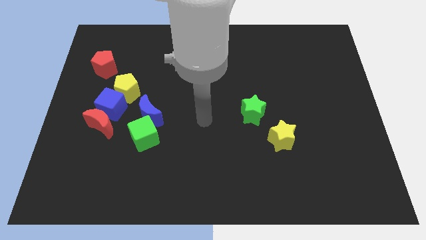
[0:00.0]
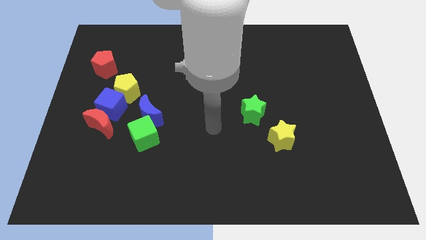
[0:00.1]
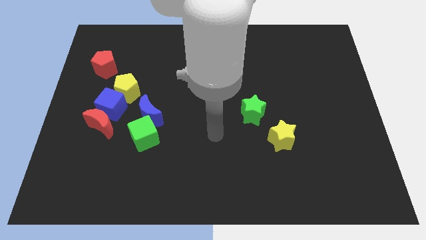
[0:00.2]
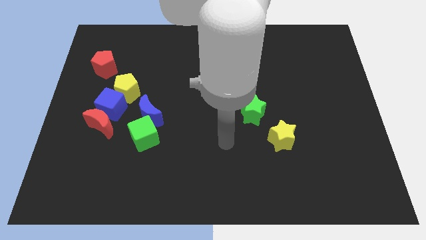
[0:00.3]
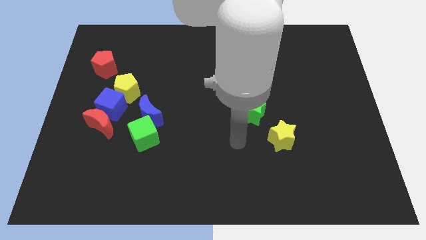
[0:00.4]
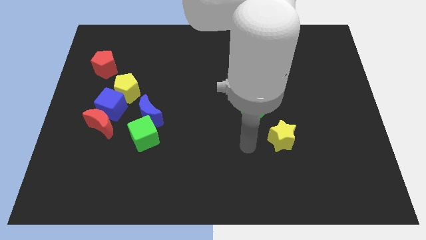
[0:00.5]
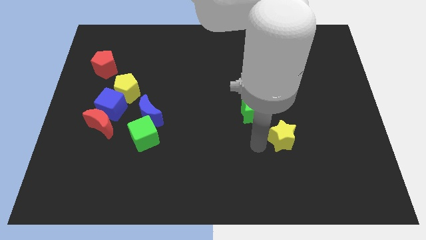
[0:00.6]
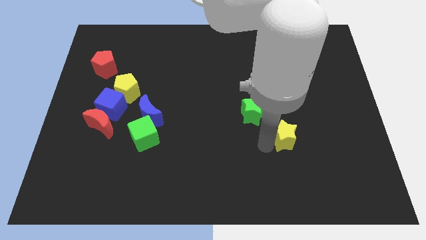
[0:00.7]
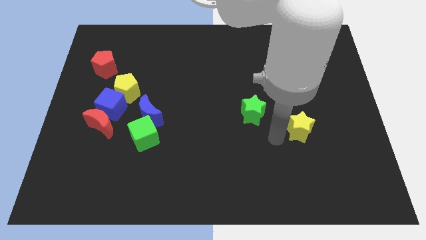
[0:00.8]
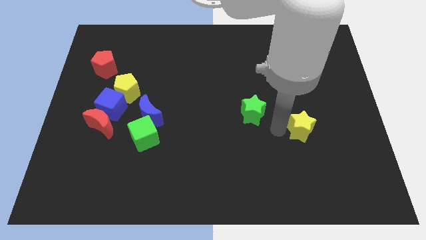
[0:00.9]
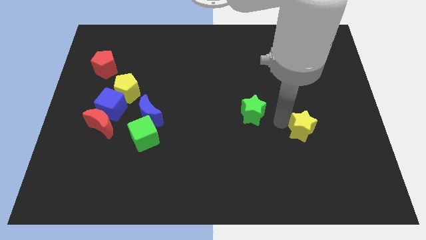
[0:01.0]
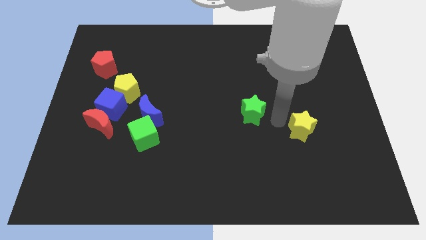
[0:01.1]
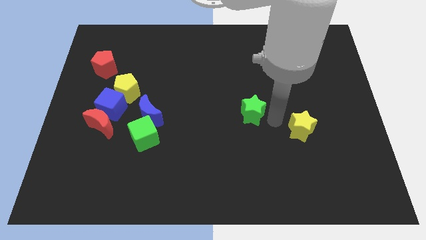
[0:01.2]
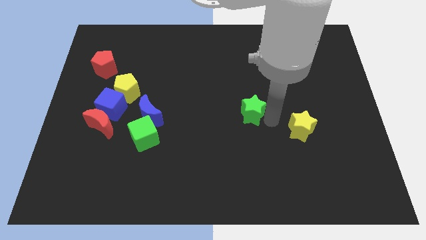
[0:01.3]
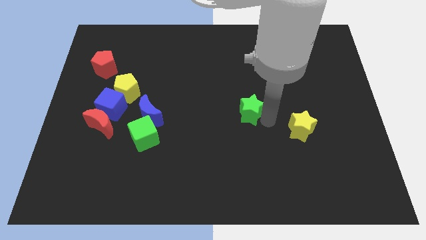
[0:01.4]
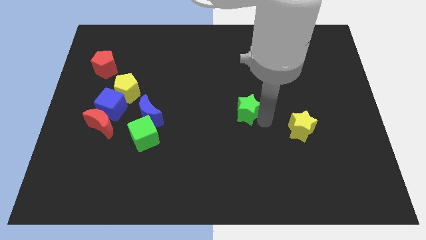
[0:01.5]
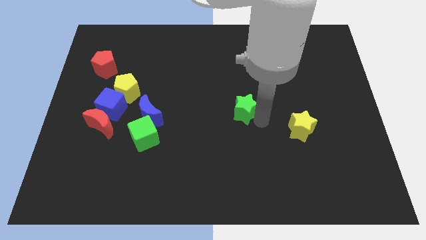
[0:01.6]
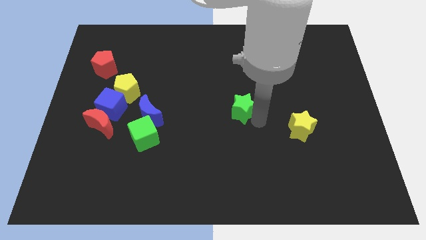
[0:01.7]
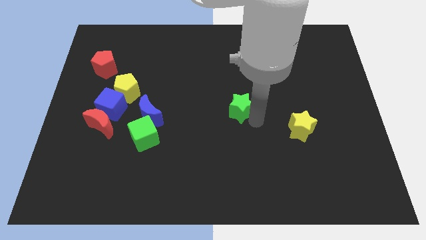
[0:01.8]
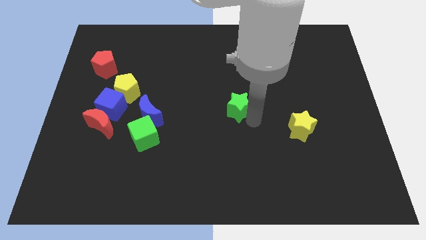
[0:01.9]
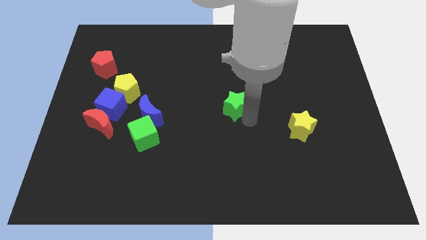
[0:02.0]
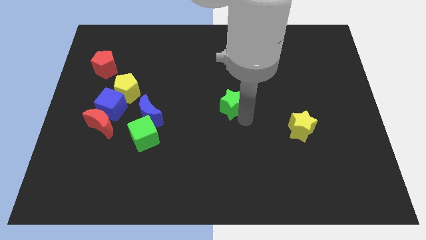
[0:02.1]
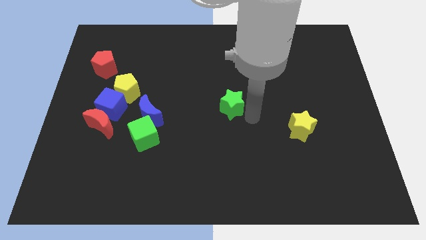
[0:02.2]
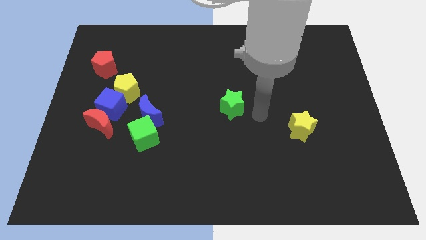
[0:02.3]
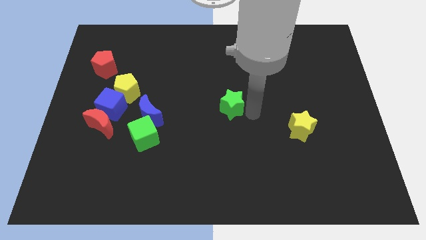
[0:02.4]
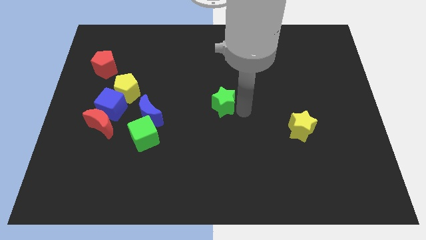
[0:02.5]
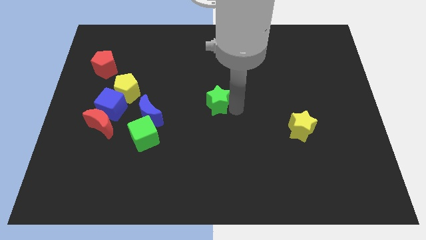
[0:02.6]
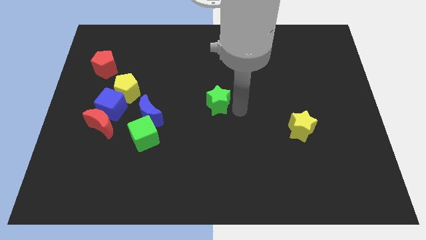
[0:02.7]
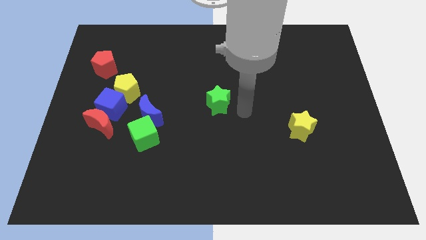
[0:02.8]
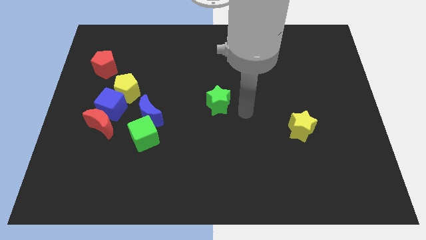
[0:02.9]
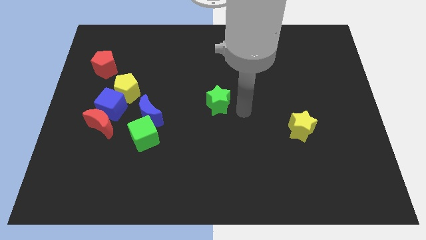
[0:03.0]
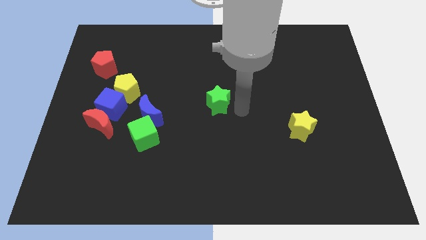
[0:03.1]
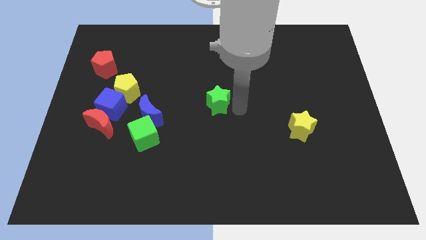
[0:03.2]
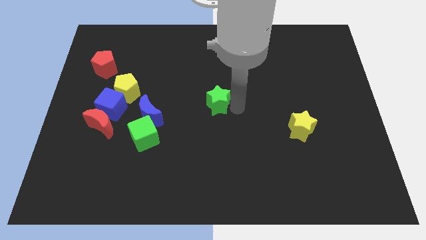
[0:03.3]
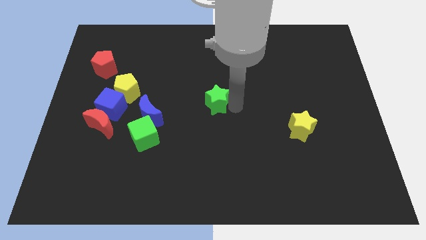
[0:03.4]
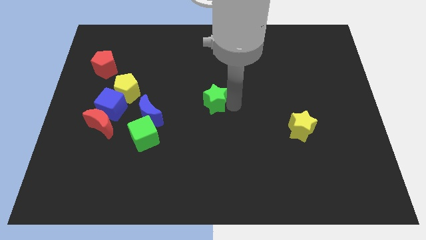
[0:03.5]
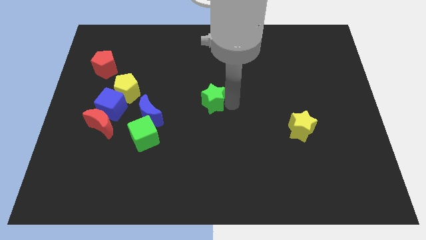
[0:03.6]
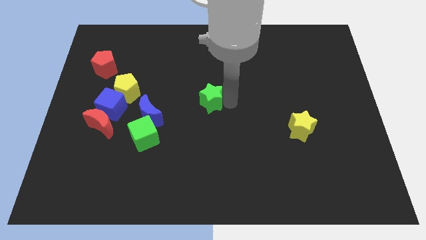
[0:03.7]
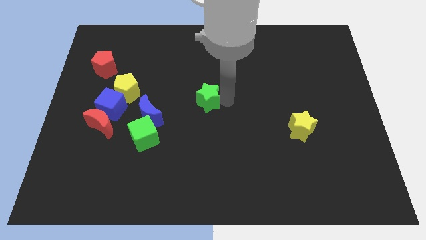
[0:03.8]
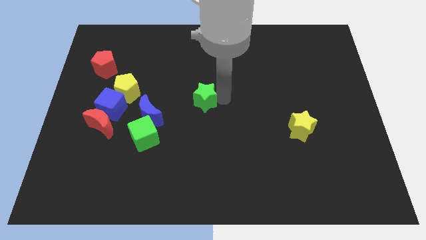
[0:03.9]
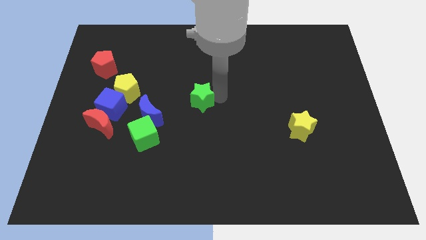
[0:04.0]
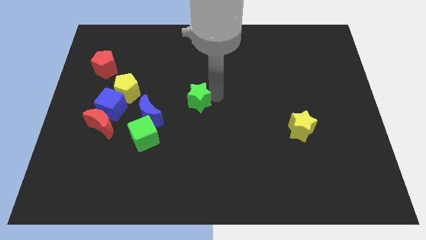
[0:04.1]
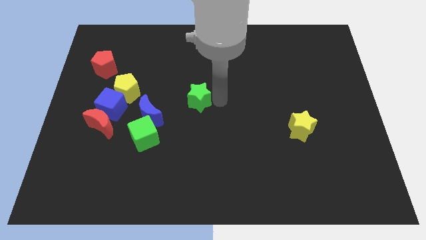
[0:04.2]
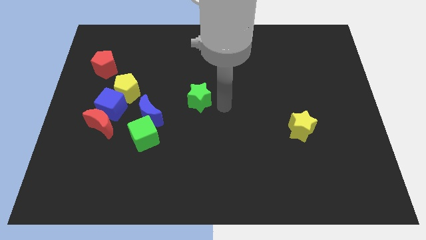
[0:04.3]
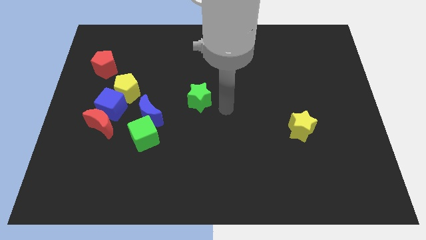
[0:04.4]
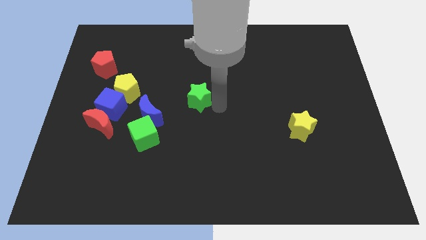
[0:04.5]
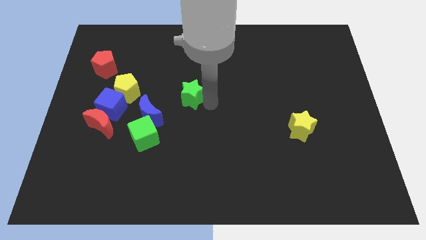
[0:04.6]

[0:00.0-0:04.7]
put the green star to the right side of the yellow pentagon

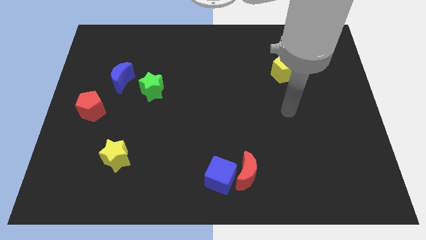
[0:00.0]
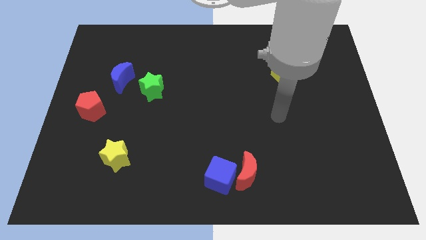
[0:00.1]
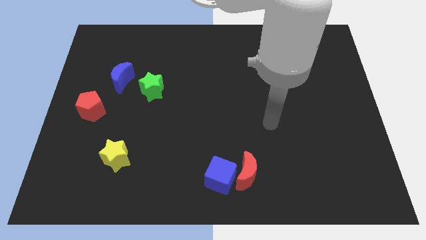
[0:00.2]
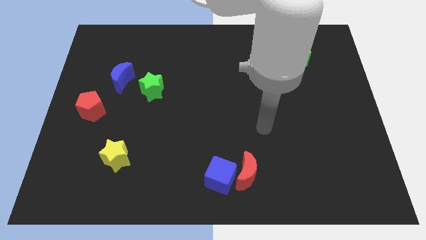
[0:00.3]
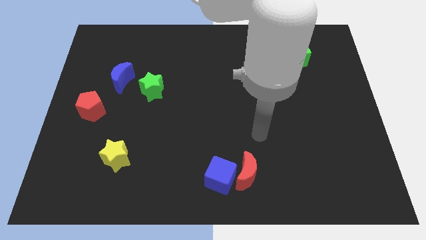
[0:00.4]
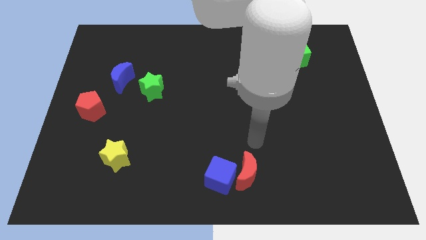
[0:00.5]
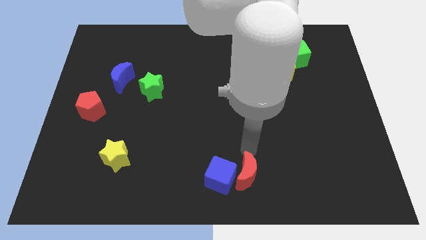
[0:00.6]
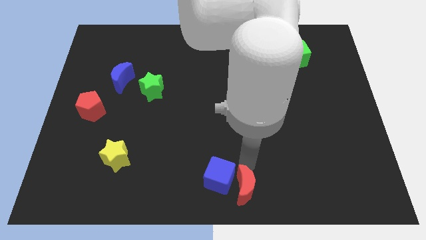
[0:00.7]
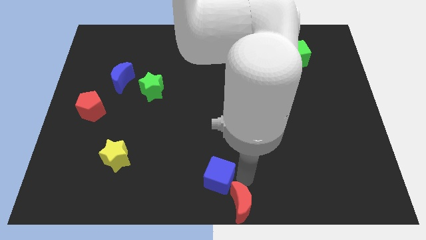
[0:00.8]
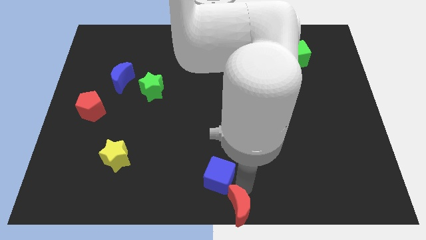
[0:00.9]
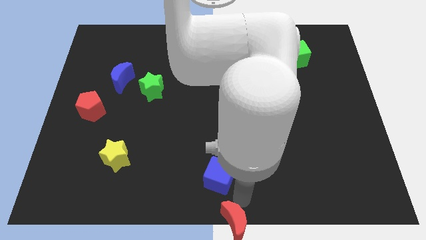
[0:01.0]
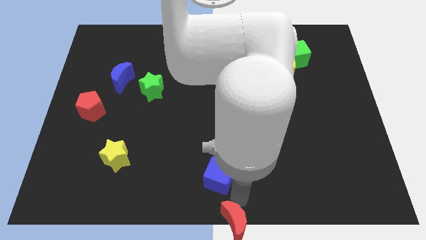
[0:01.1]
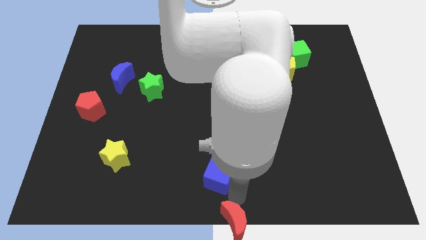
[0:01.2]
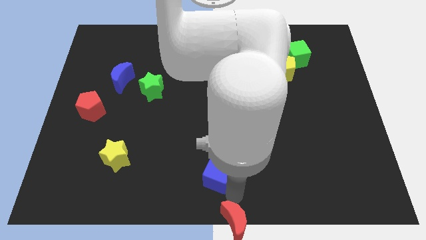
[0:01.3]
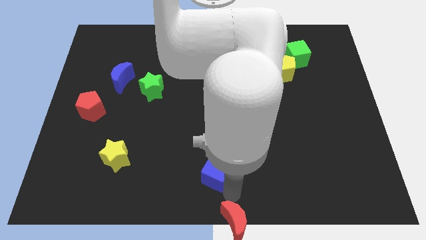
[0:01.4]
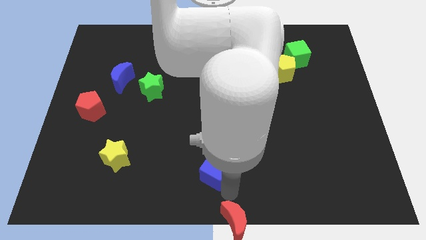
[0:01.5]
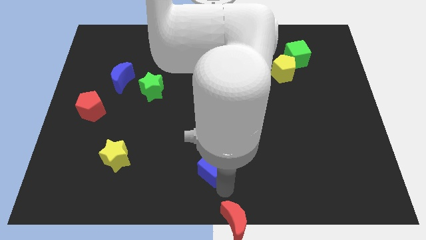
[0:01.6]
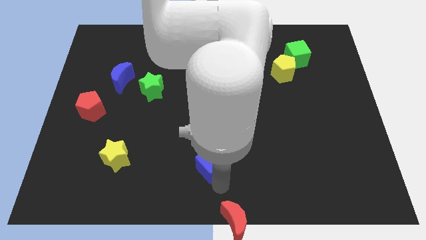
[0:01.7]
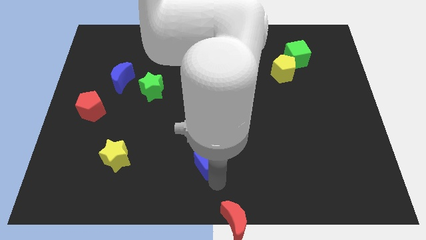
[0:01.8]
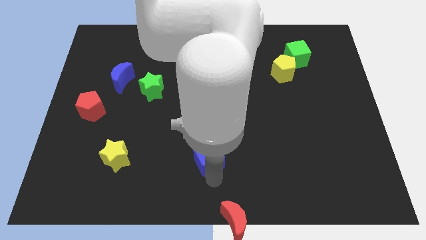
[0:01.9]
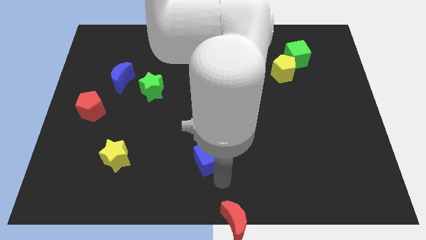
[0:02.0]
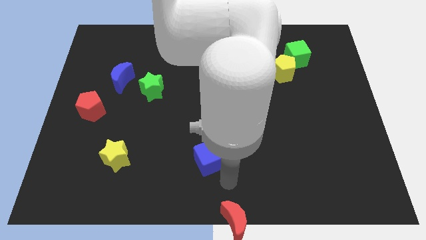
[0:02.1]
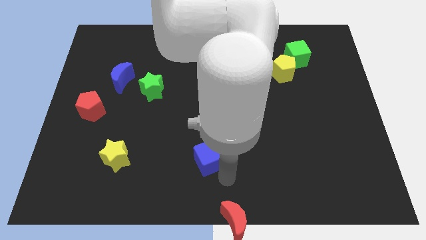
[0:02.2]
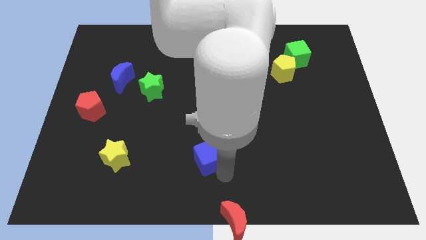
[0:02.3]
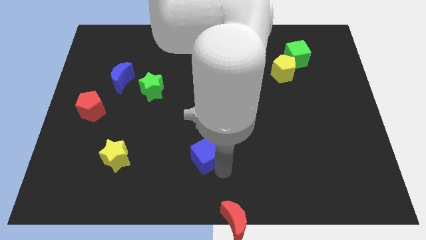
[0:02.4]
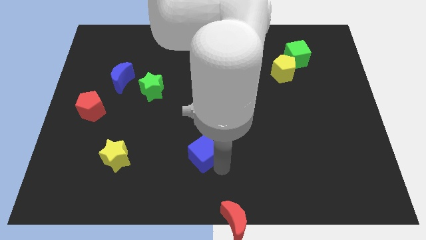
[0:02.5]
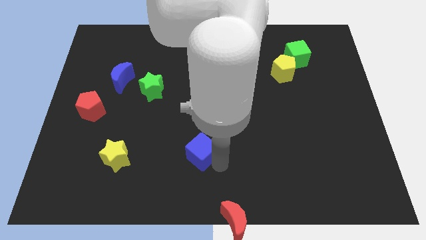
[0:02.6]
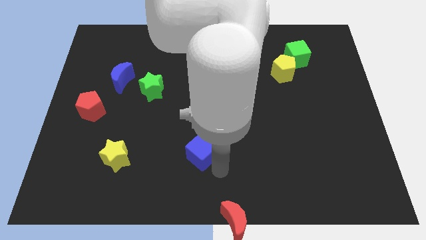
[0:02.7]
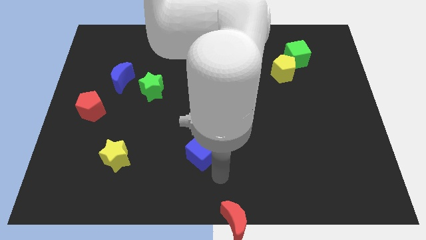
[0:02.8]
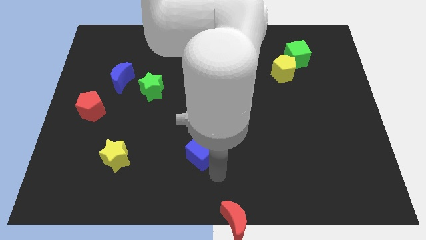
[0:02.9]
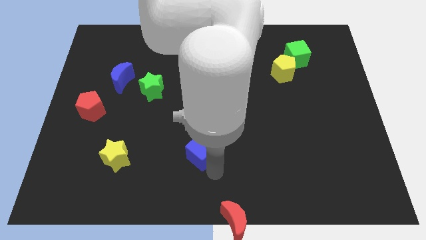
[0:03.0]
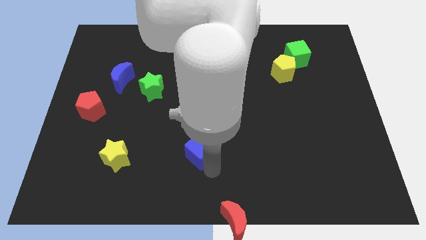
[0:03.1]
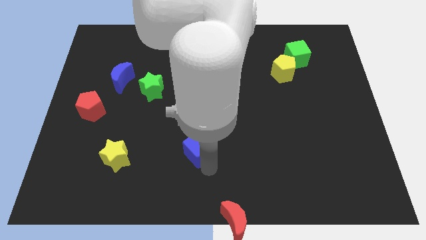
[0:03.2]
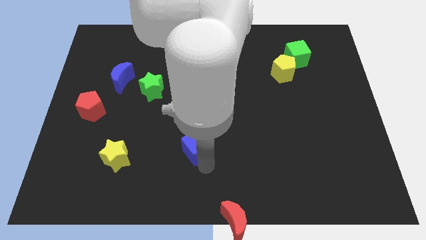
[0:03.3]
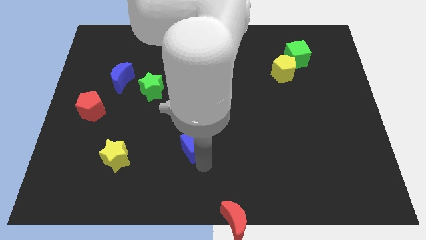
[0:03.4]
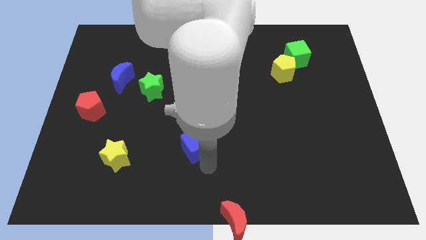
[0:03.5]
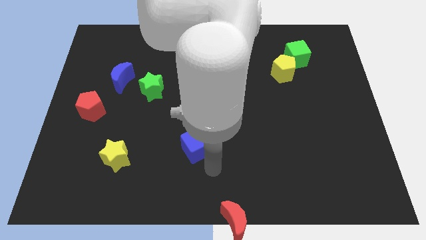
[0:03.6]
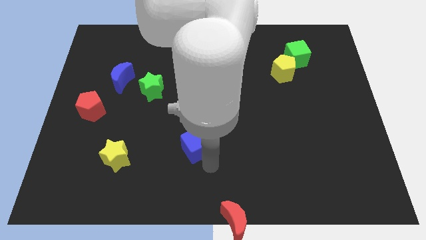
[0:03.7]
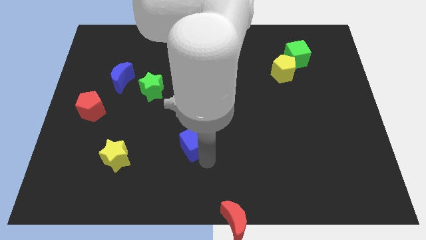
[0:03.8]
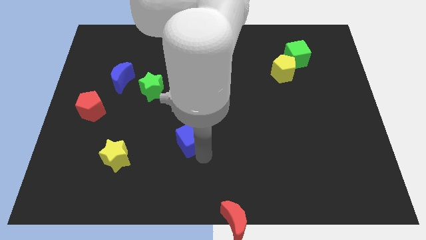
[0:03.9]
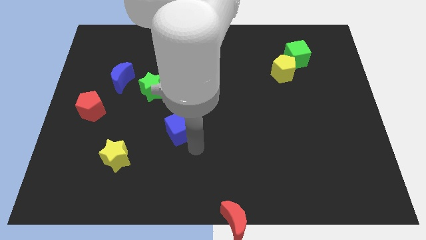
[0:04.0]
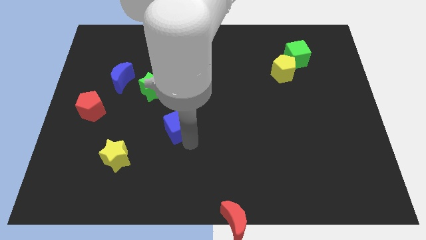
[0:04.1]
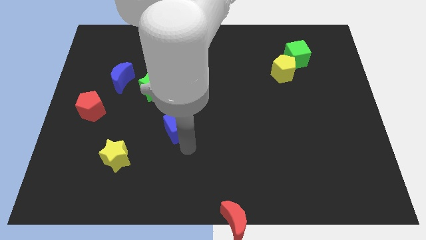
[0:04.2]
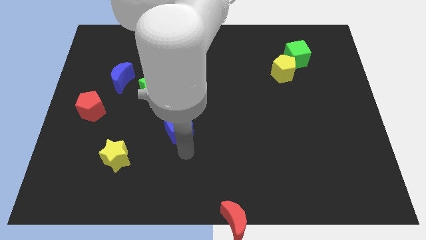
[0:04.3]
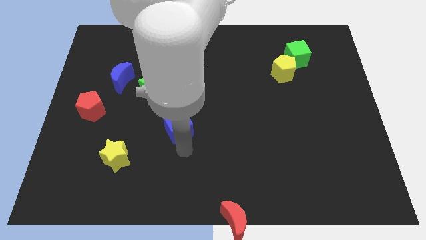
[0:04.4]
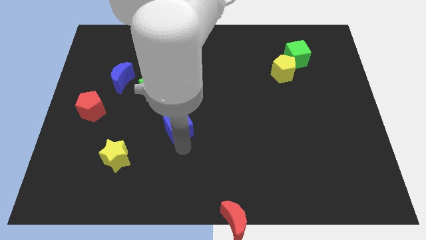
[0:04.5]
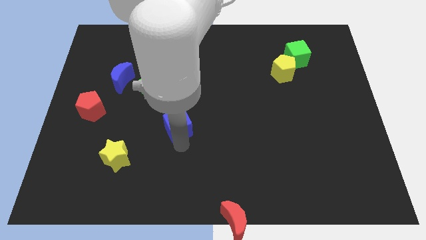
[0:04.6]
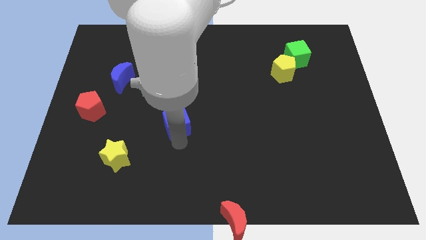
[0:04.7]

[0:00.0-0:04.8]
slide the blue cube to the bottom right of the green star
